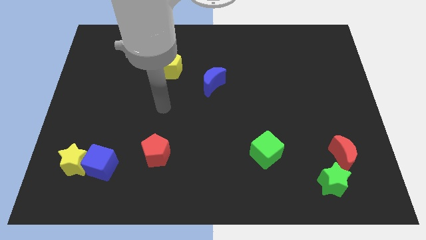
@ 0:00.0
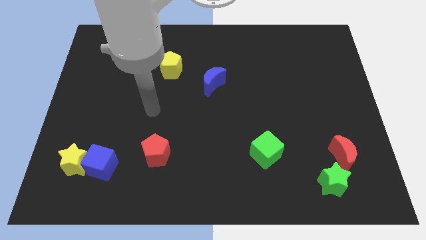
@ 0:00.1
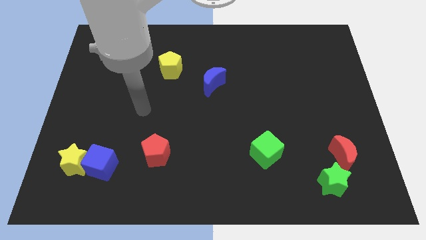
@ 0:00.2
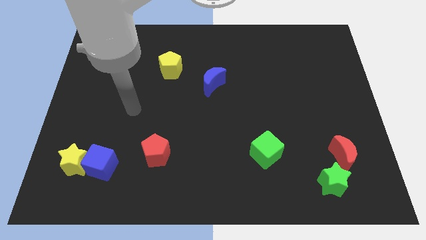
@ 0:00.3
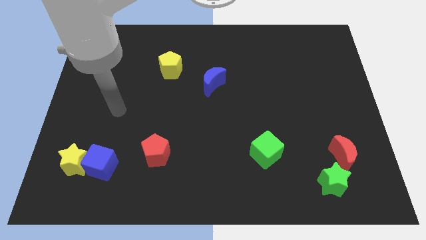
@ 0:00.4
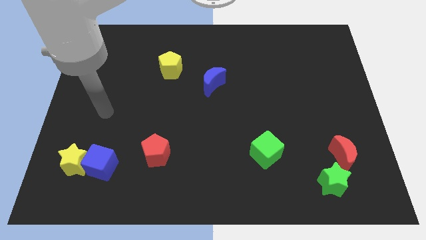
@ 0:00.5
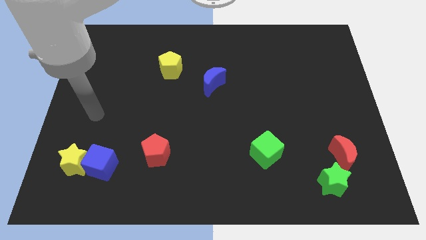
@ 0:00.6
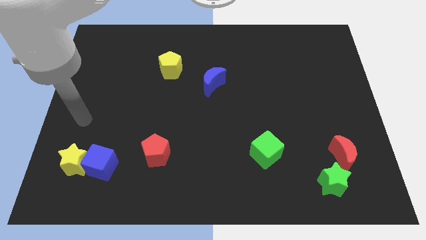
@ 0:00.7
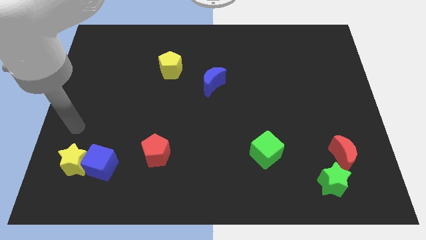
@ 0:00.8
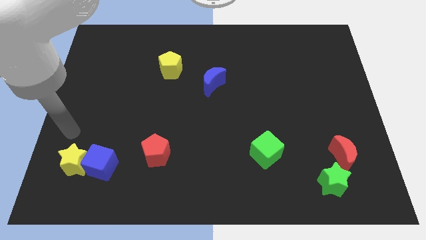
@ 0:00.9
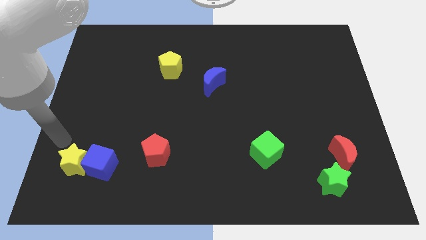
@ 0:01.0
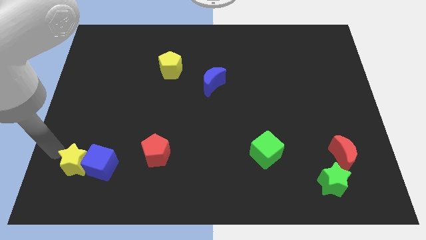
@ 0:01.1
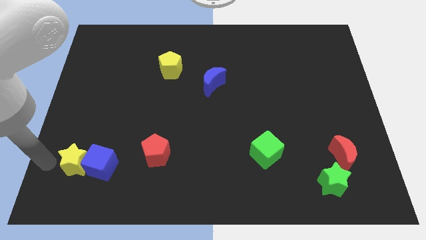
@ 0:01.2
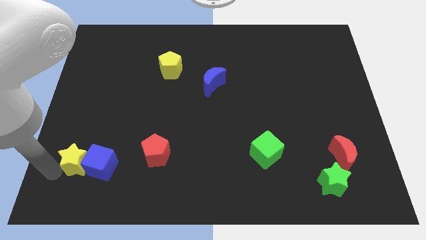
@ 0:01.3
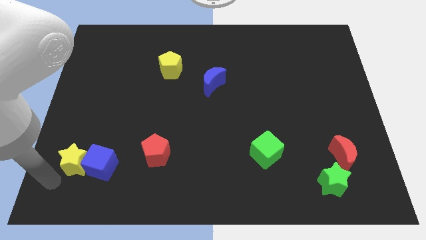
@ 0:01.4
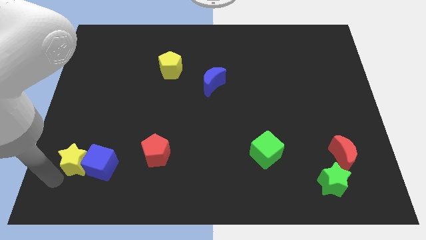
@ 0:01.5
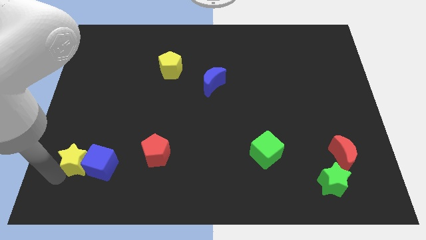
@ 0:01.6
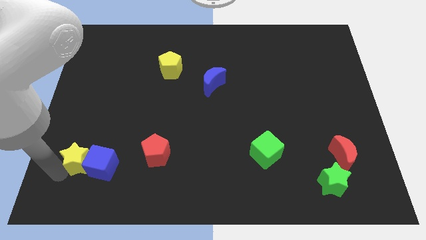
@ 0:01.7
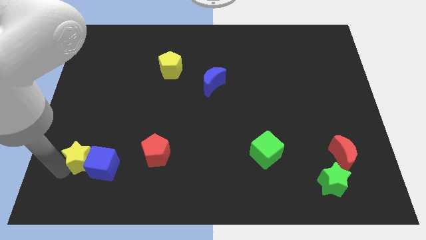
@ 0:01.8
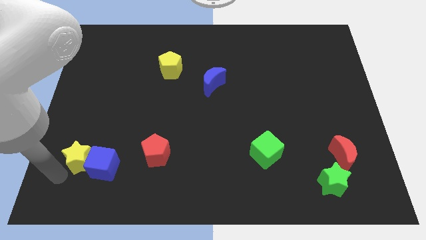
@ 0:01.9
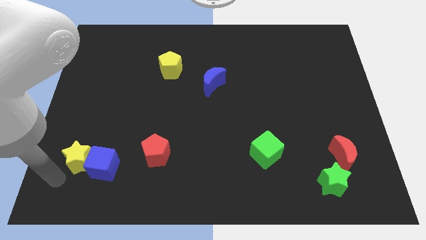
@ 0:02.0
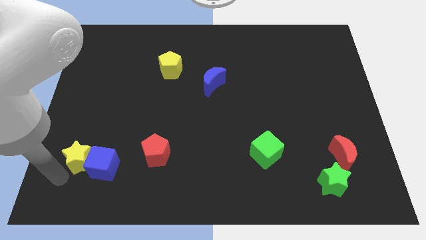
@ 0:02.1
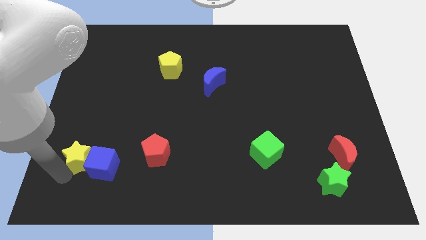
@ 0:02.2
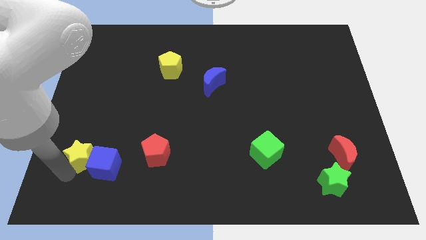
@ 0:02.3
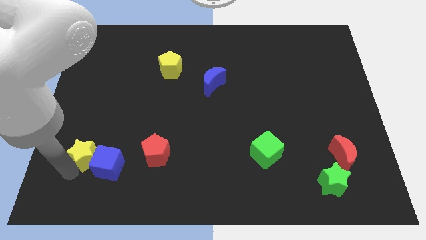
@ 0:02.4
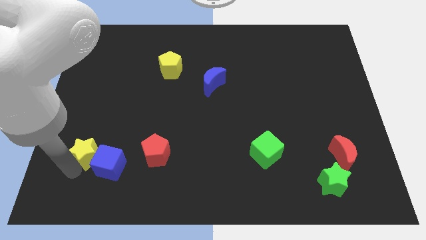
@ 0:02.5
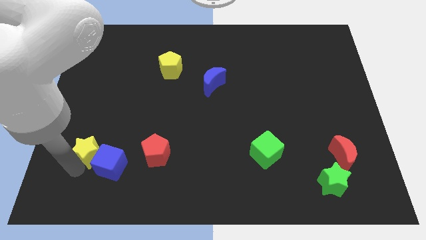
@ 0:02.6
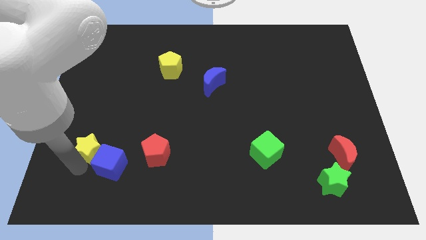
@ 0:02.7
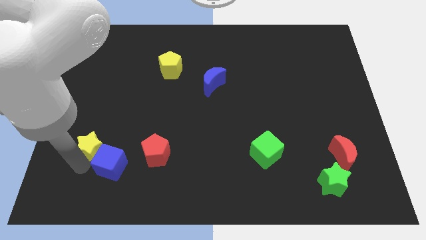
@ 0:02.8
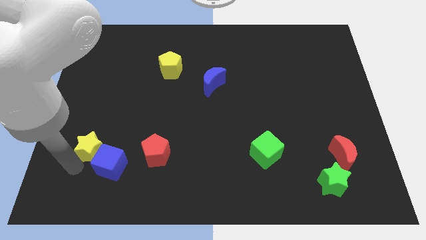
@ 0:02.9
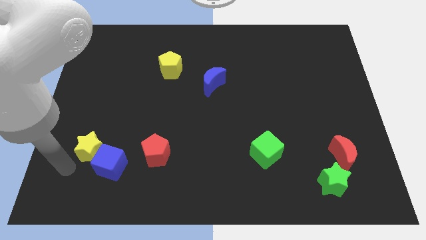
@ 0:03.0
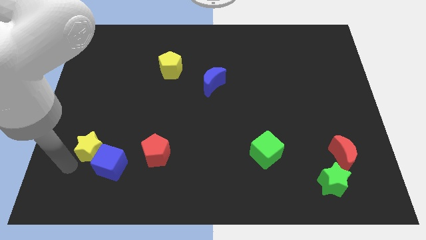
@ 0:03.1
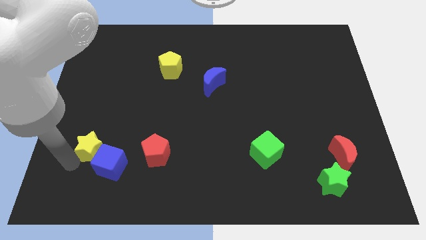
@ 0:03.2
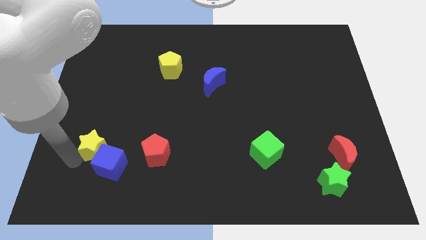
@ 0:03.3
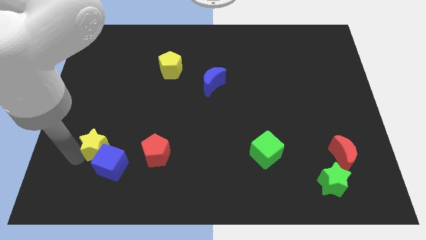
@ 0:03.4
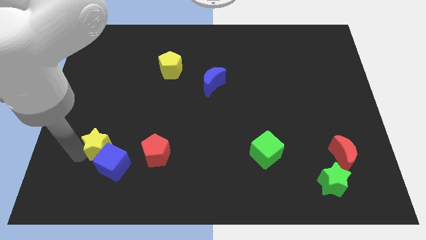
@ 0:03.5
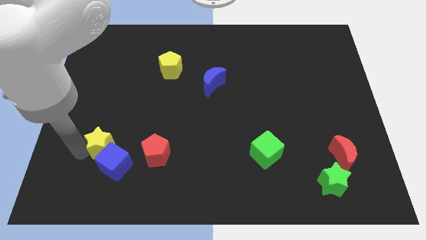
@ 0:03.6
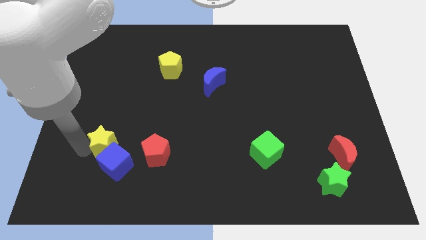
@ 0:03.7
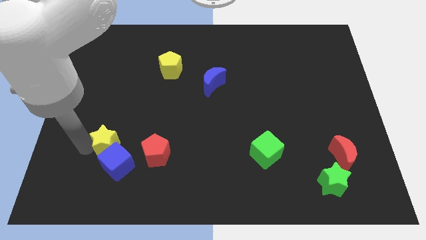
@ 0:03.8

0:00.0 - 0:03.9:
slide the yellow star upwards and to the right diagonally a little

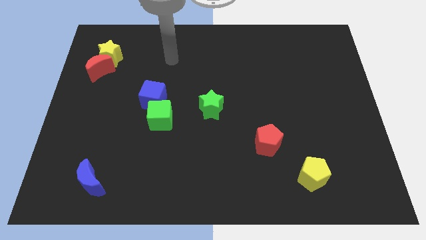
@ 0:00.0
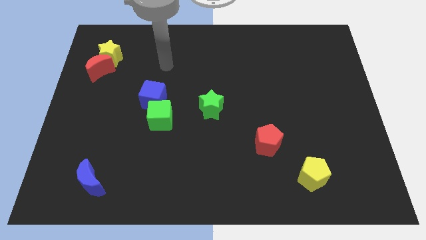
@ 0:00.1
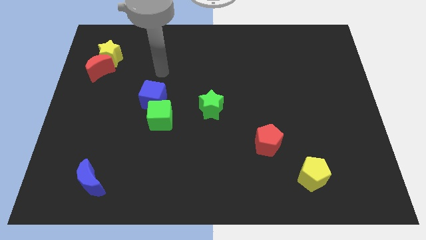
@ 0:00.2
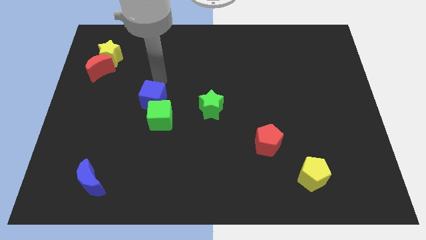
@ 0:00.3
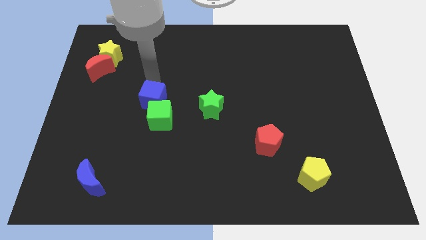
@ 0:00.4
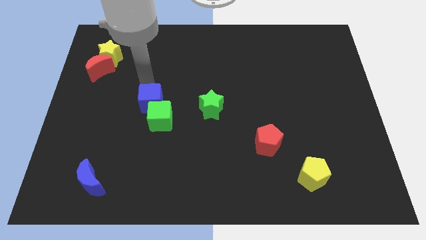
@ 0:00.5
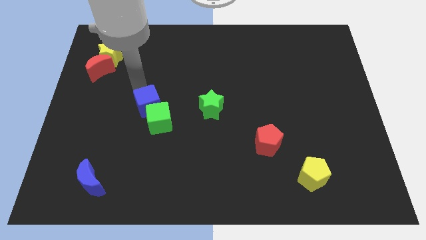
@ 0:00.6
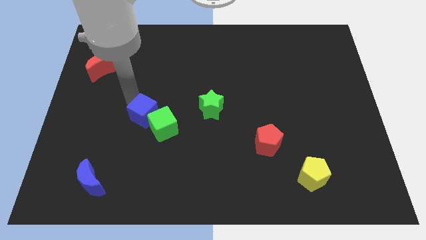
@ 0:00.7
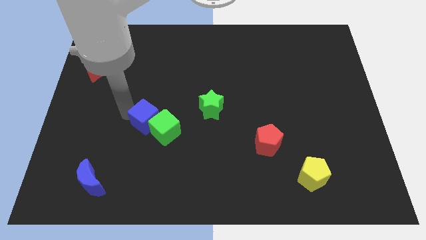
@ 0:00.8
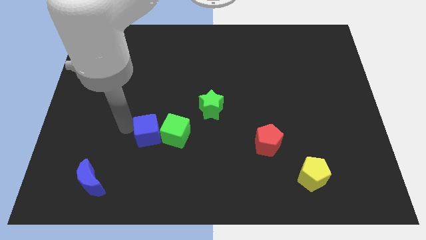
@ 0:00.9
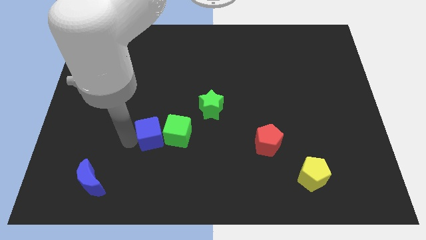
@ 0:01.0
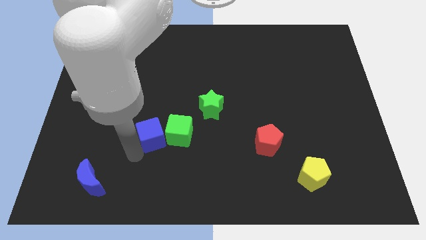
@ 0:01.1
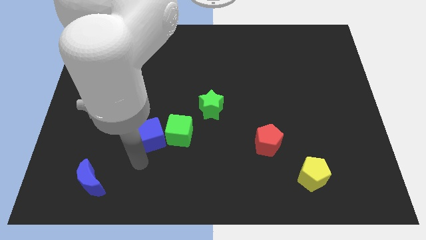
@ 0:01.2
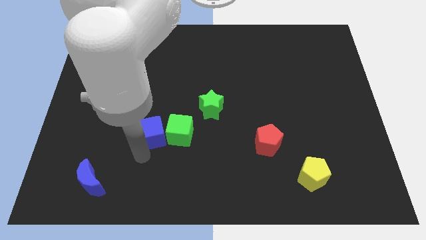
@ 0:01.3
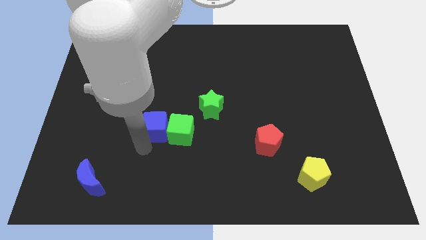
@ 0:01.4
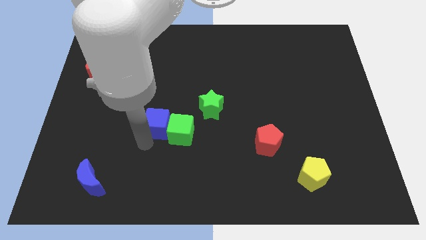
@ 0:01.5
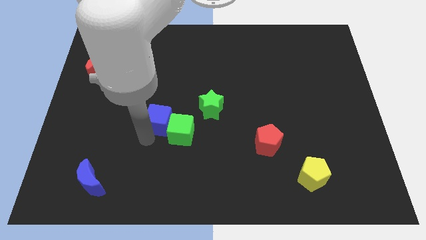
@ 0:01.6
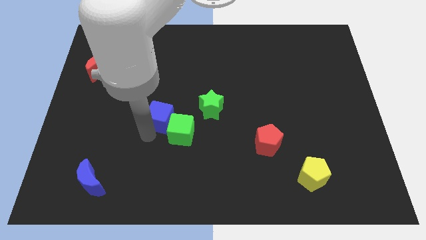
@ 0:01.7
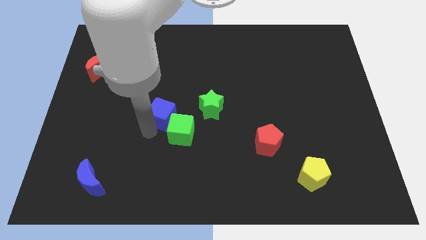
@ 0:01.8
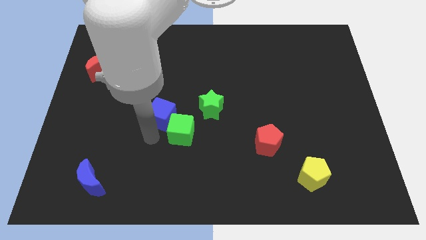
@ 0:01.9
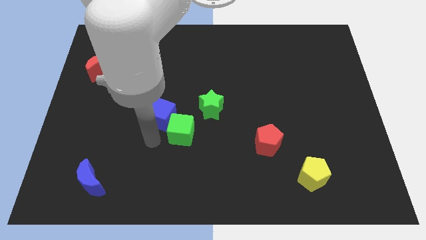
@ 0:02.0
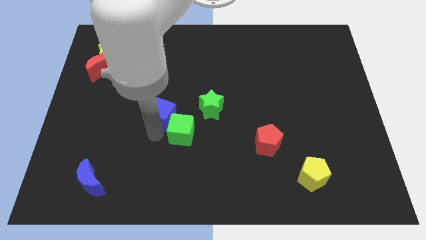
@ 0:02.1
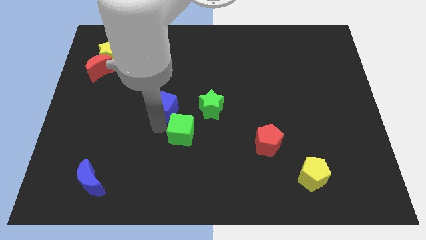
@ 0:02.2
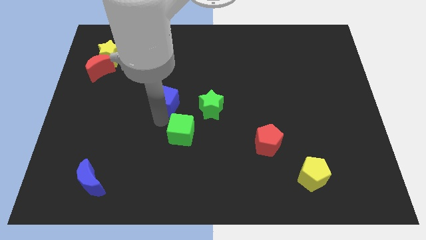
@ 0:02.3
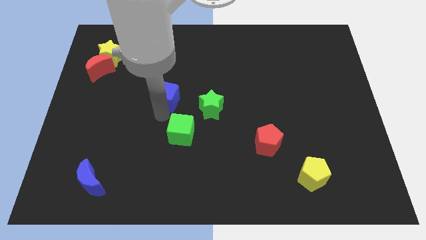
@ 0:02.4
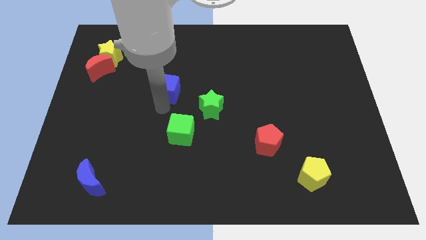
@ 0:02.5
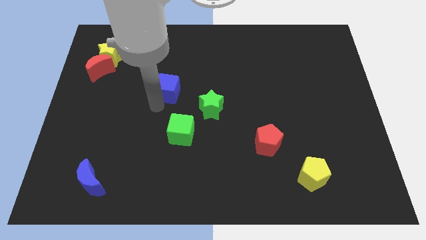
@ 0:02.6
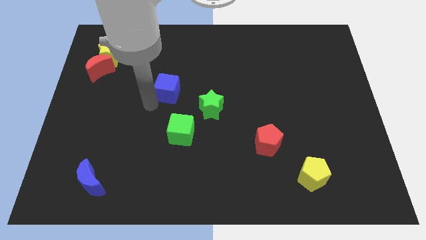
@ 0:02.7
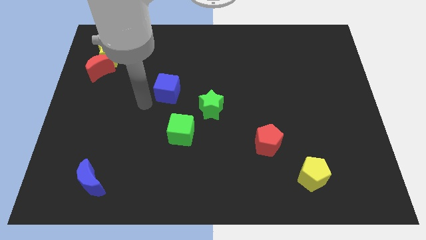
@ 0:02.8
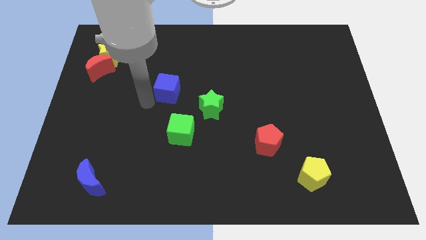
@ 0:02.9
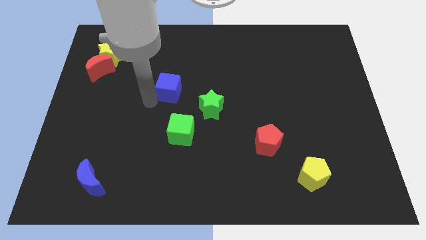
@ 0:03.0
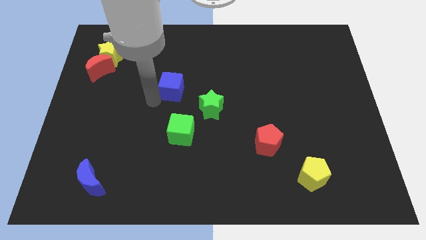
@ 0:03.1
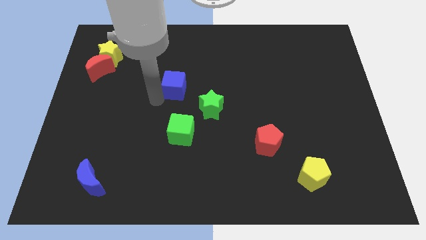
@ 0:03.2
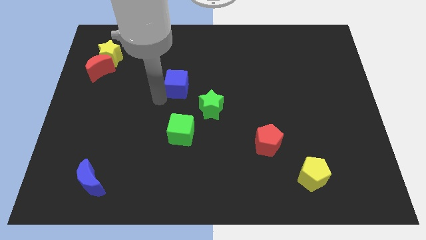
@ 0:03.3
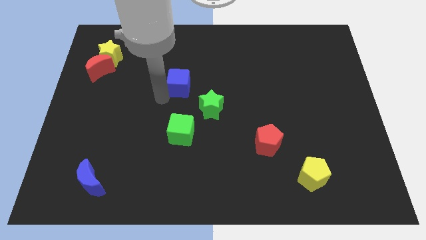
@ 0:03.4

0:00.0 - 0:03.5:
push the blue cube somewhat upwards and then right

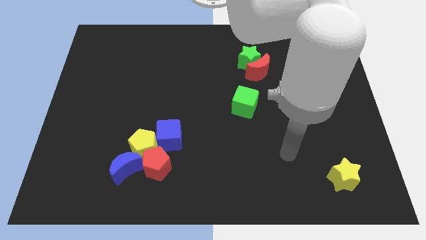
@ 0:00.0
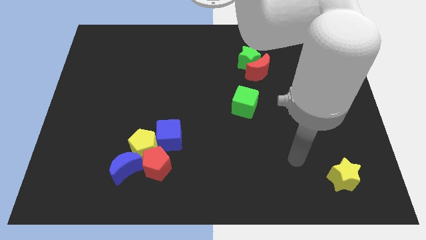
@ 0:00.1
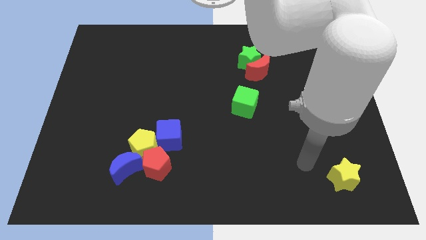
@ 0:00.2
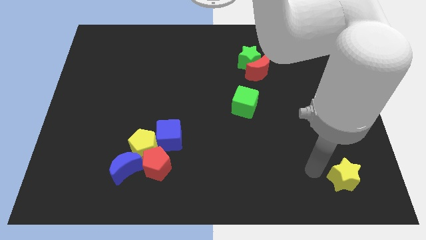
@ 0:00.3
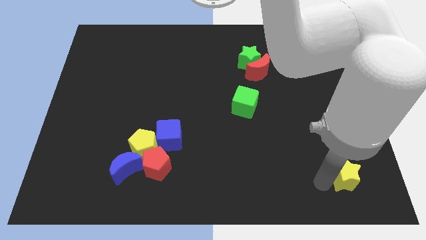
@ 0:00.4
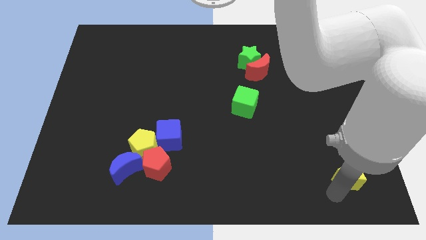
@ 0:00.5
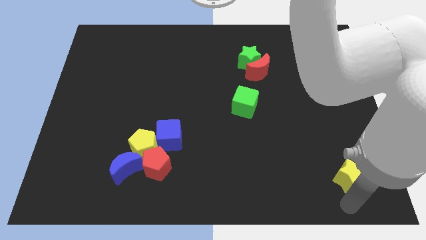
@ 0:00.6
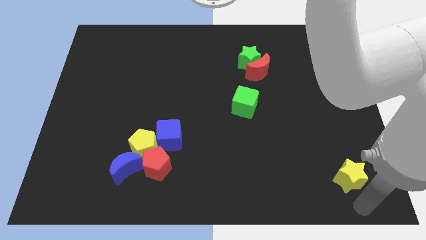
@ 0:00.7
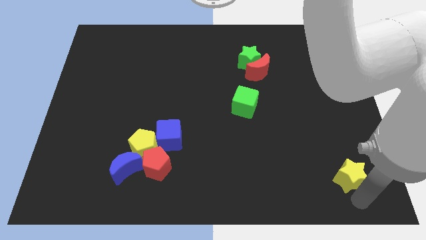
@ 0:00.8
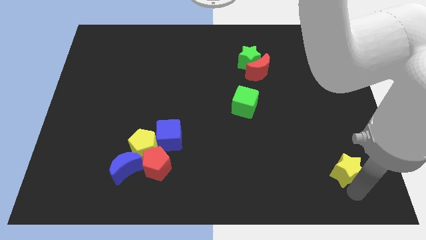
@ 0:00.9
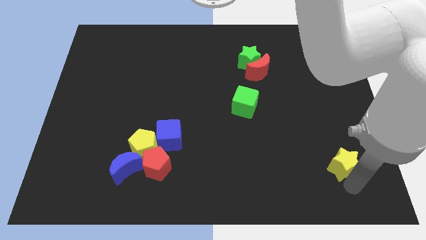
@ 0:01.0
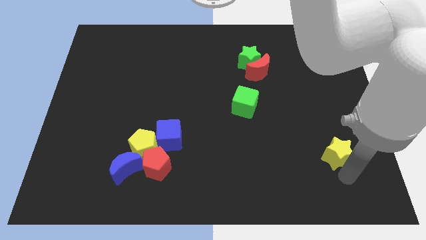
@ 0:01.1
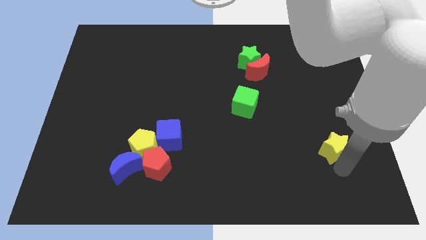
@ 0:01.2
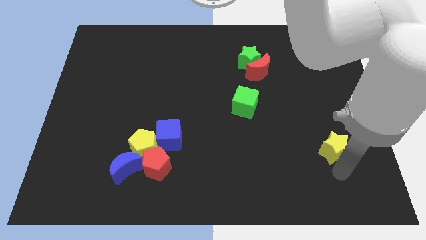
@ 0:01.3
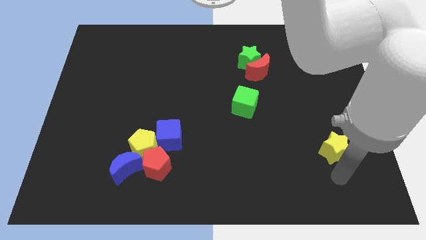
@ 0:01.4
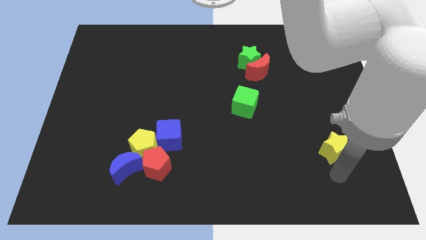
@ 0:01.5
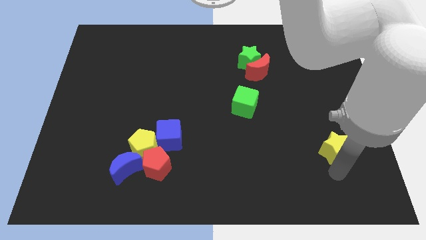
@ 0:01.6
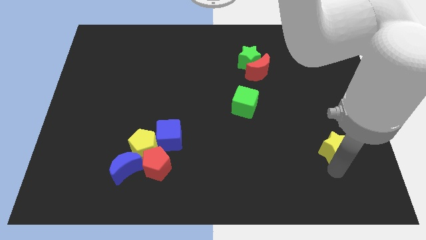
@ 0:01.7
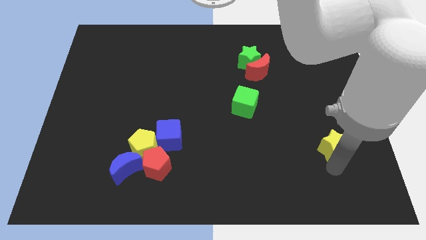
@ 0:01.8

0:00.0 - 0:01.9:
move the yellow star slightly up
